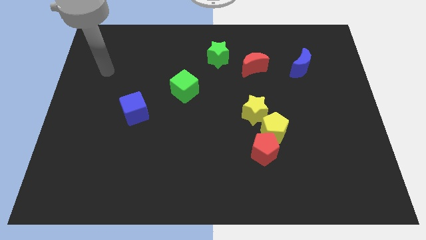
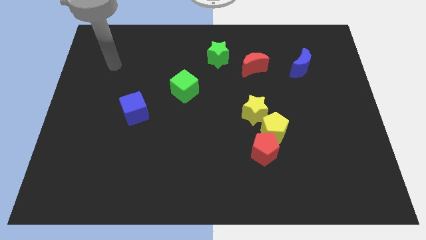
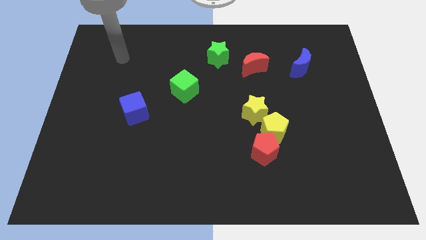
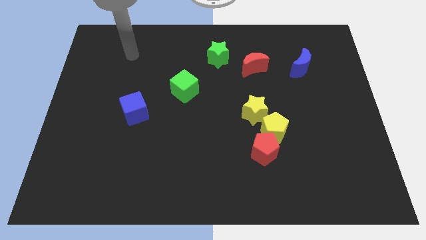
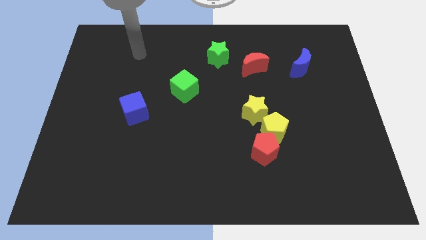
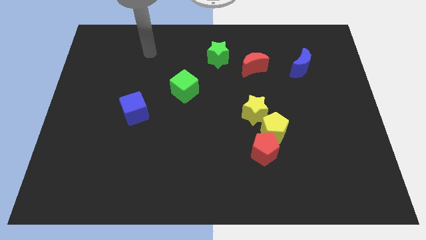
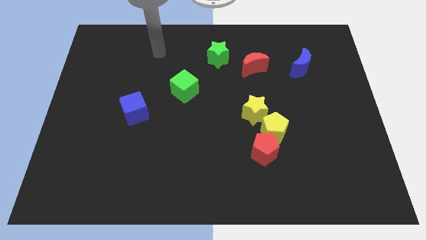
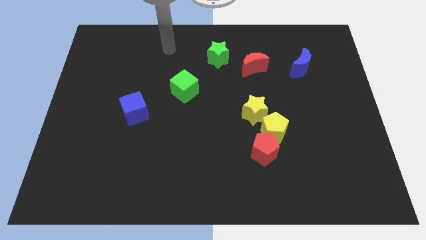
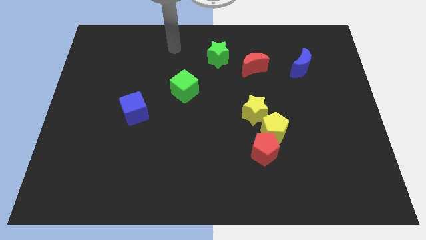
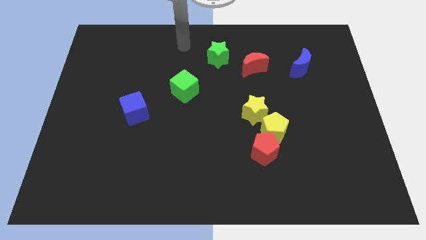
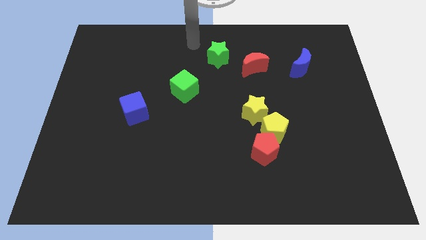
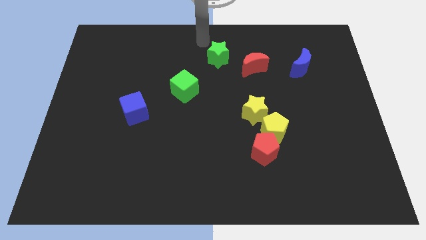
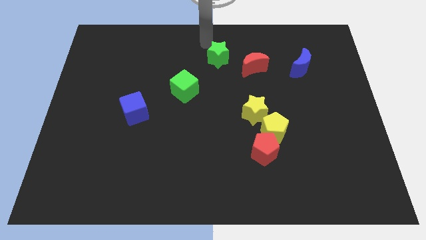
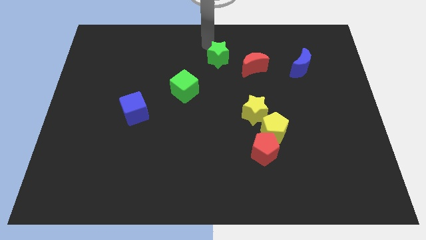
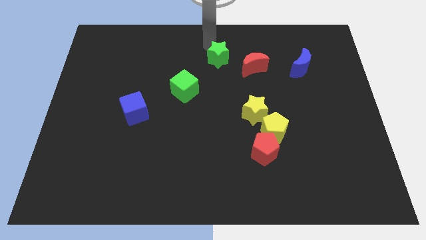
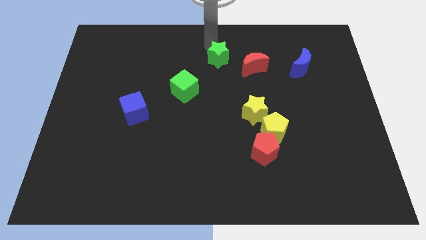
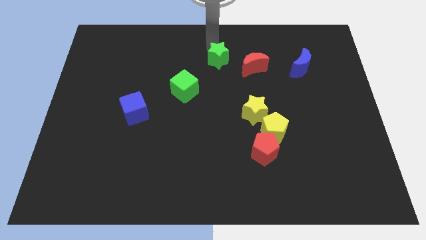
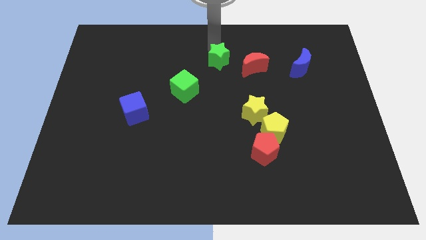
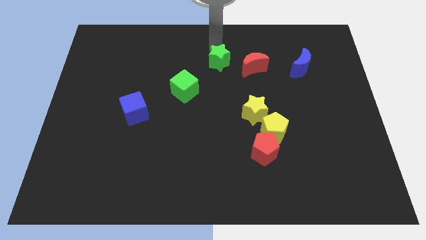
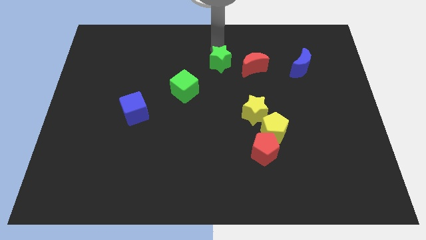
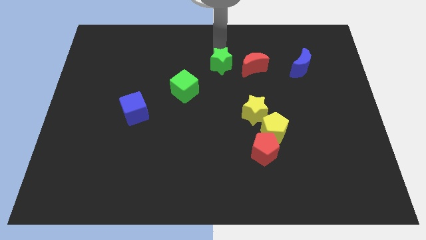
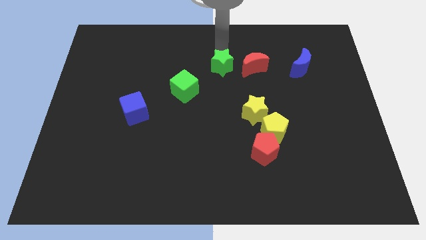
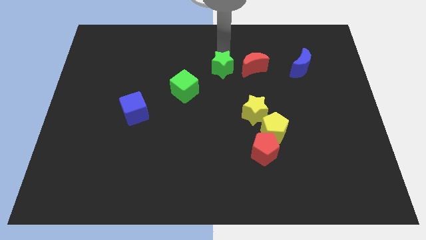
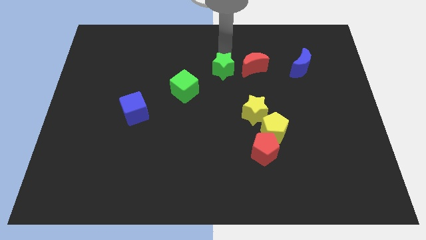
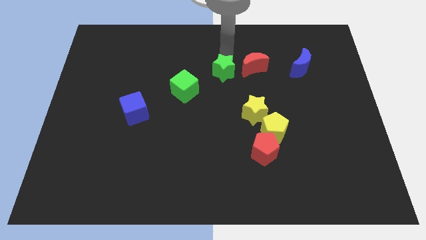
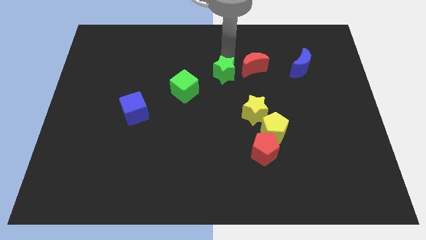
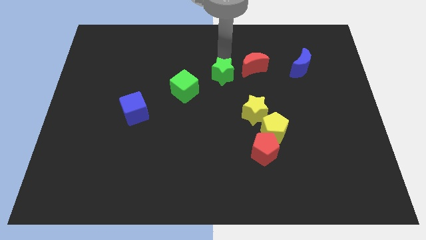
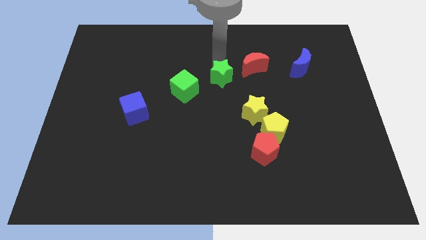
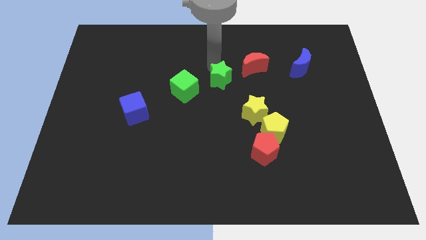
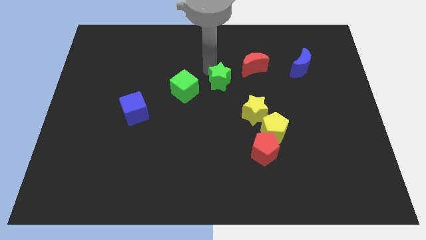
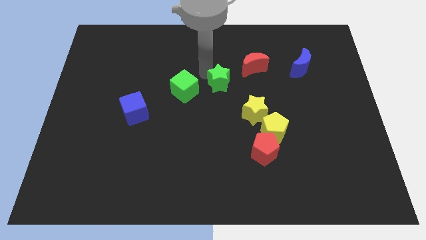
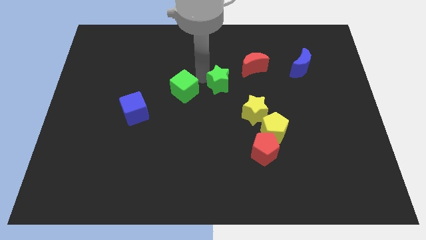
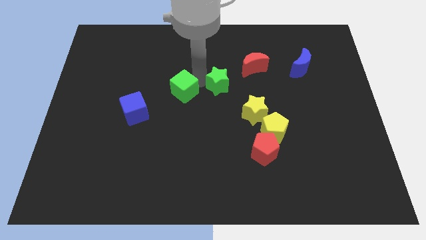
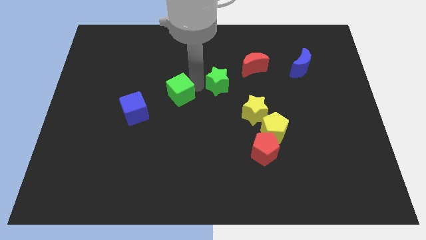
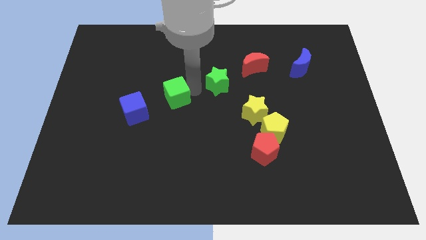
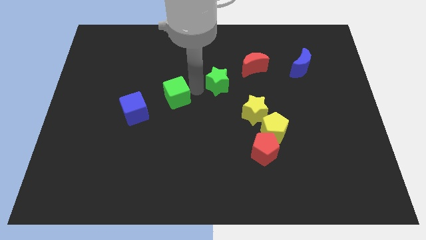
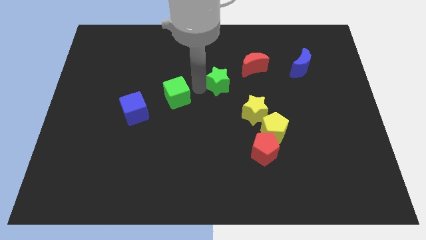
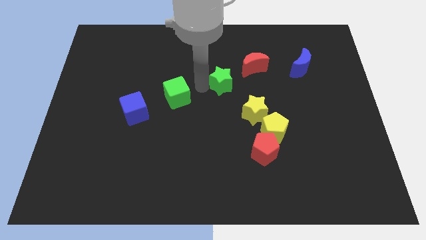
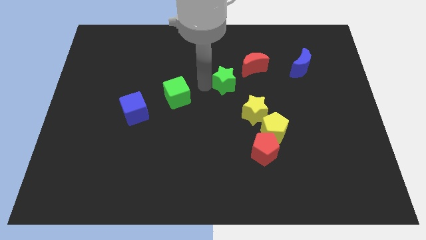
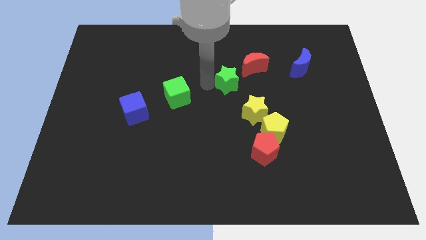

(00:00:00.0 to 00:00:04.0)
move the green star slightly diagonally downwards and to the right

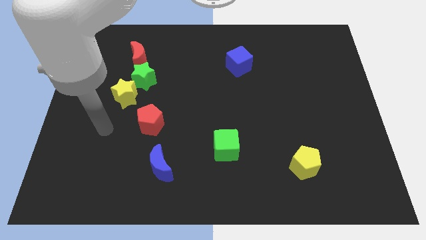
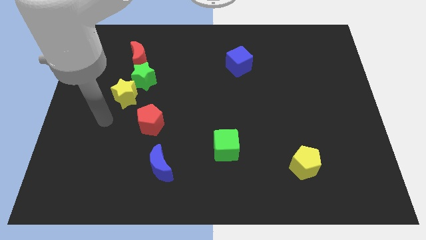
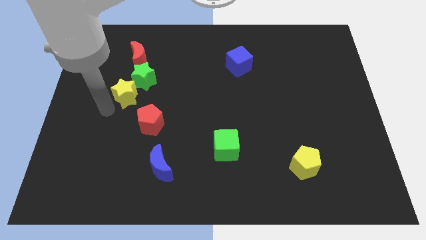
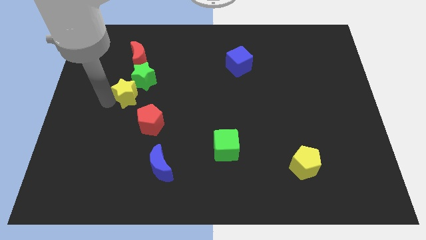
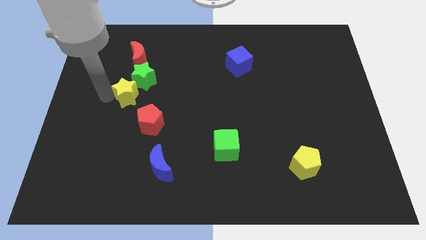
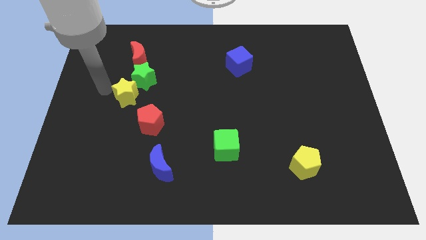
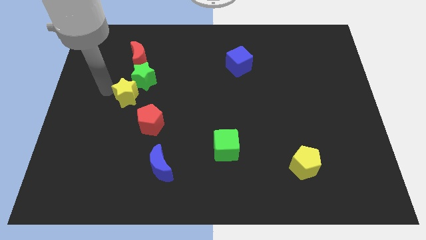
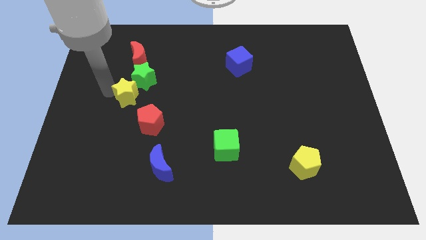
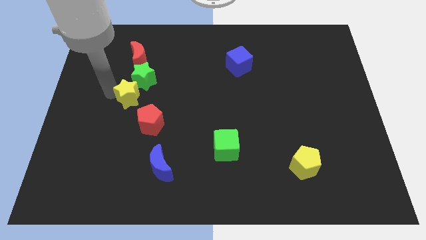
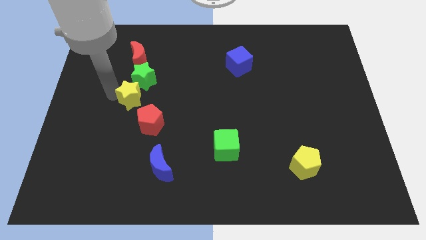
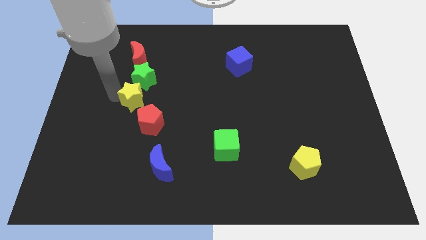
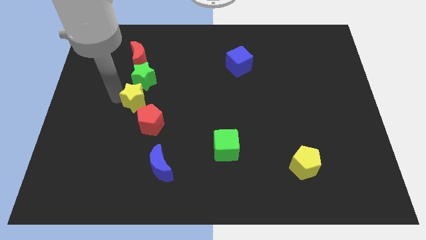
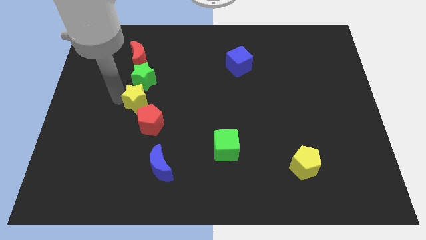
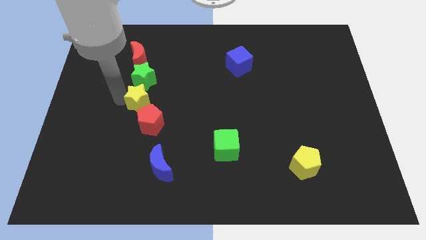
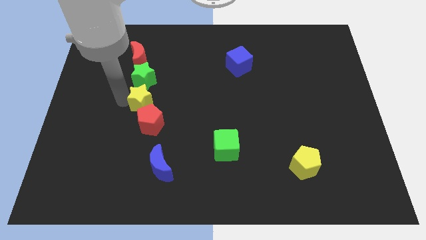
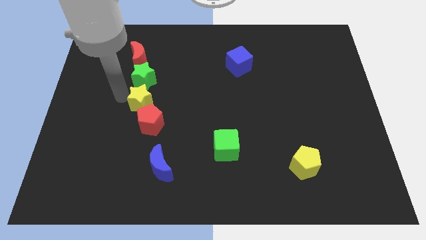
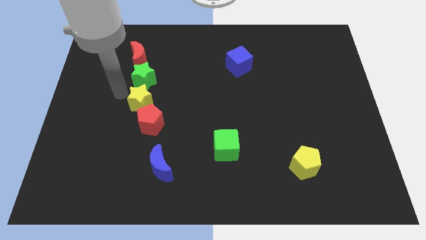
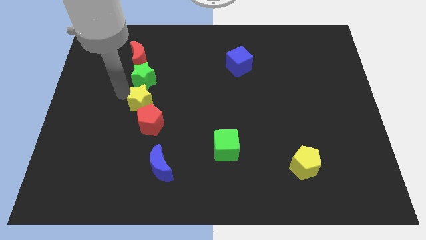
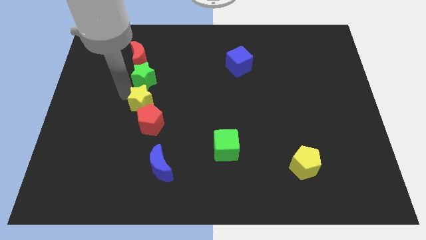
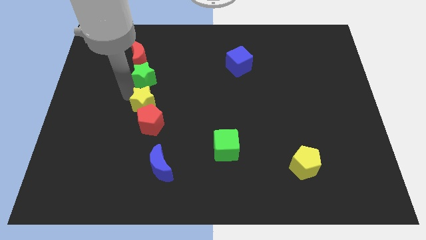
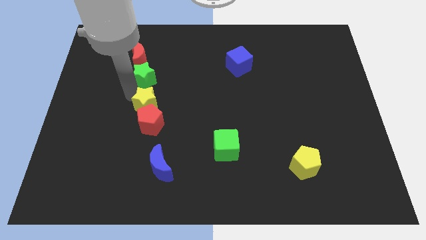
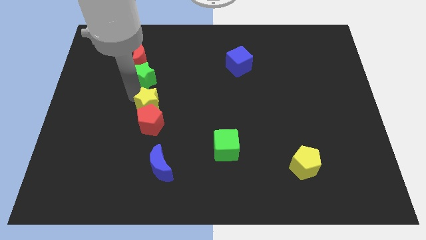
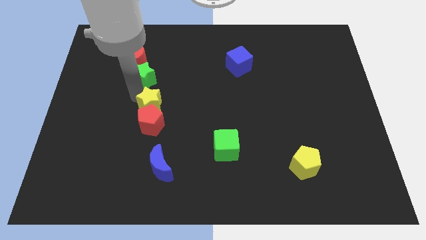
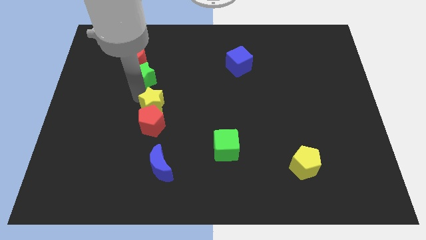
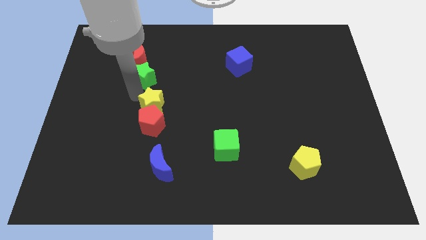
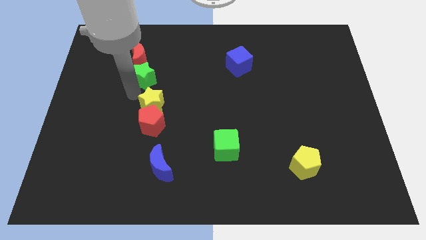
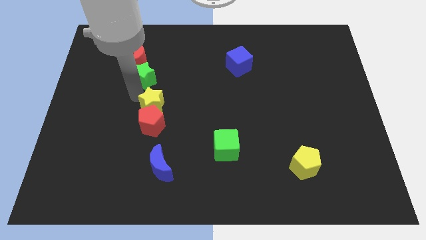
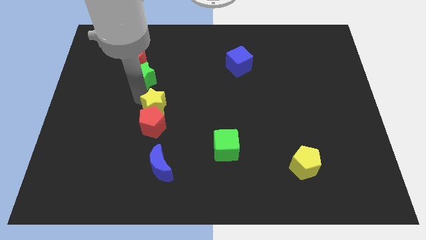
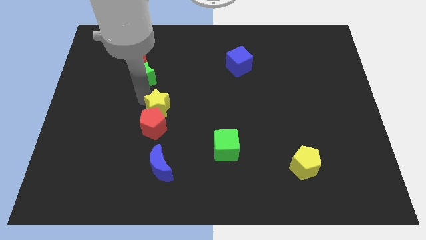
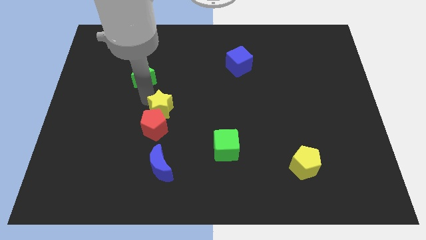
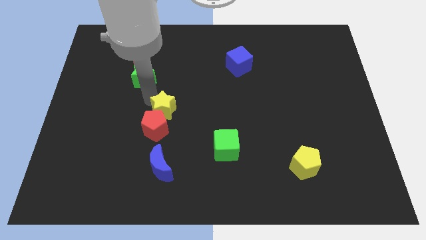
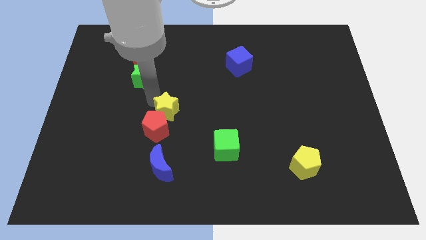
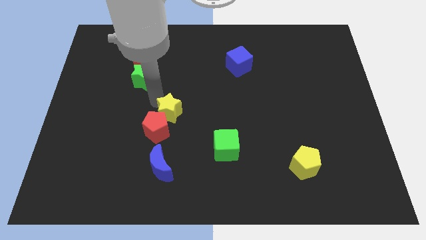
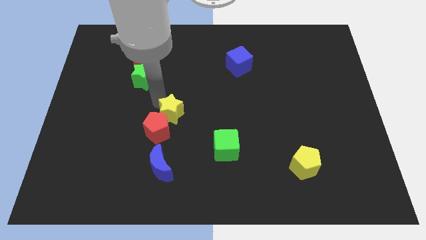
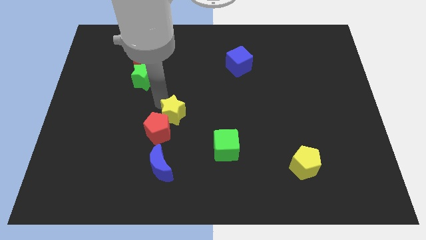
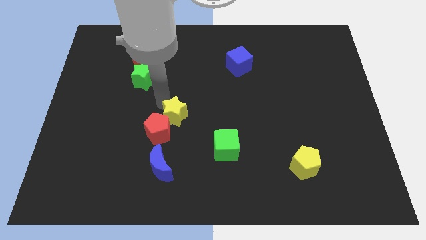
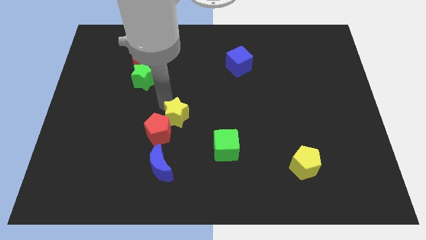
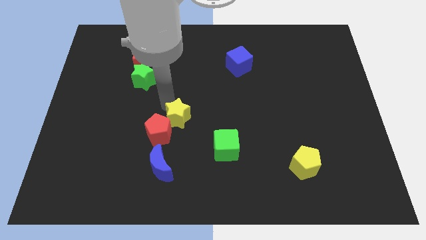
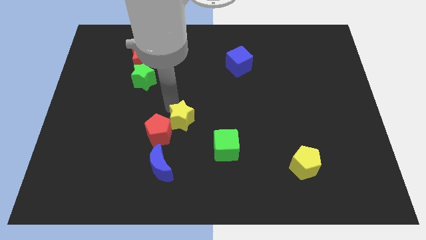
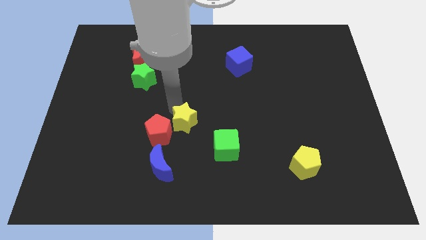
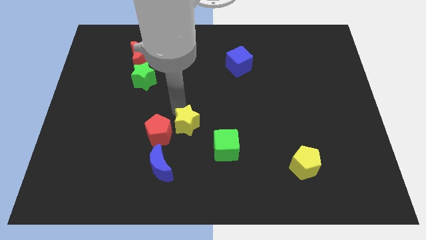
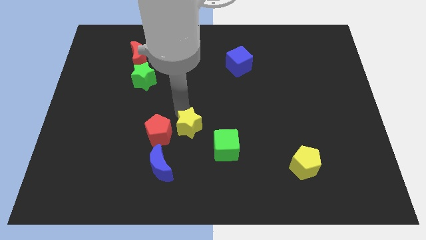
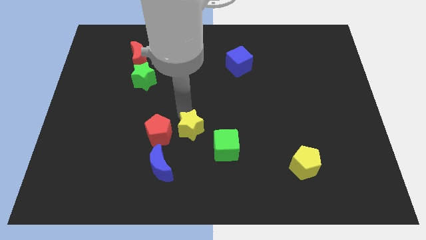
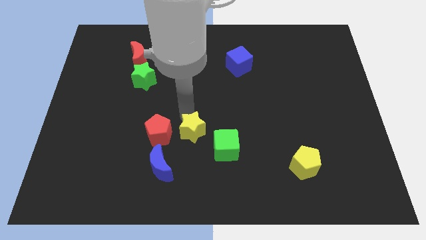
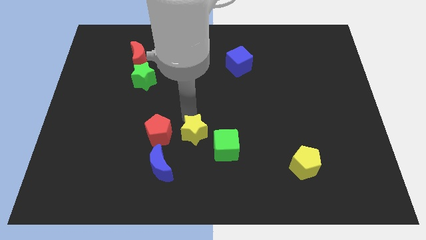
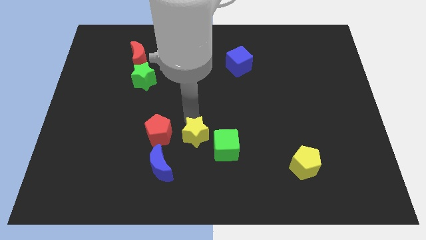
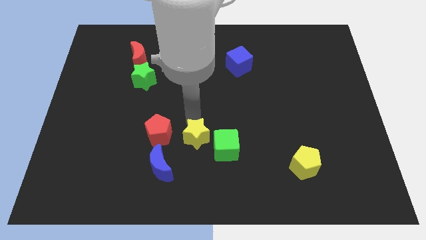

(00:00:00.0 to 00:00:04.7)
slide the yellow star downwards and right
